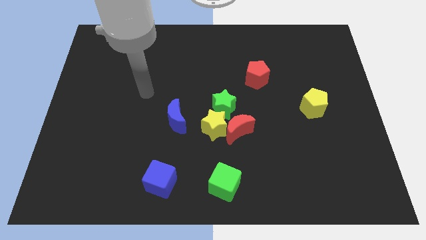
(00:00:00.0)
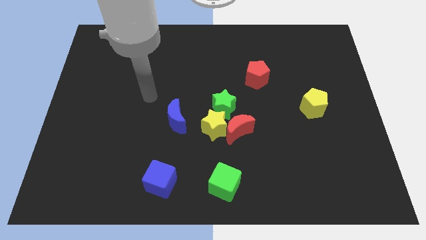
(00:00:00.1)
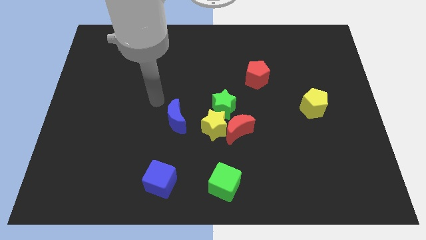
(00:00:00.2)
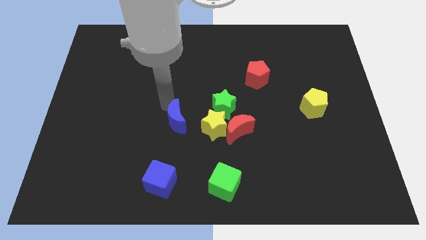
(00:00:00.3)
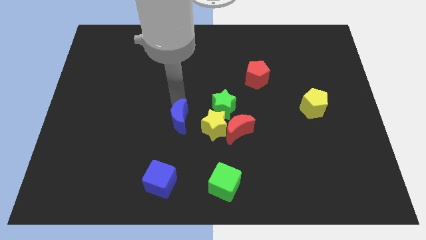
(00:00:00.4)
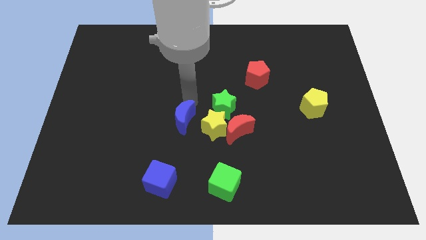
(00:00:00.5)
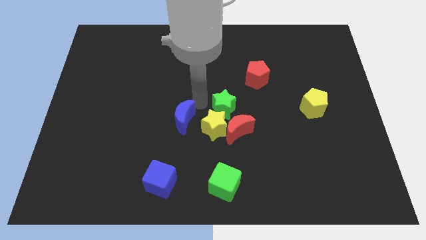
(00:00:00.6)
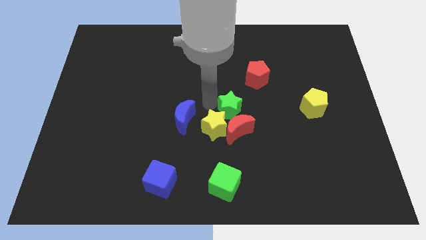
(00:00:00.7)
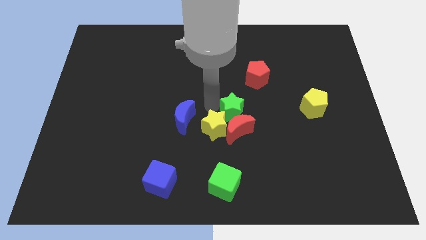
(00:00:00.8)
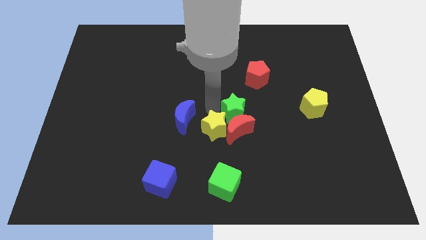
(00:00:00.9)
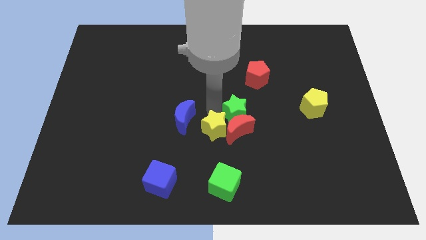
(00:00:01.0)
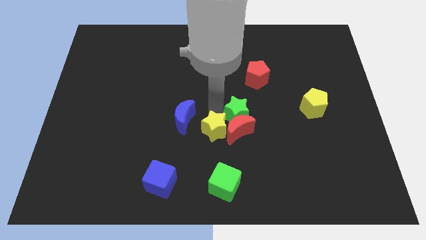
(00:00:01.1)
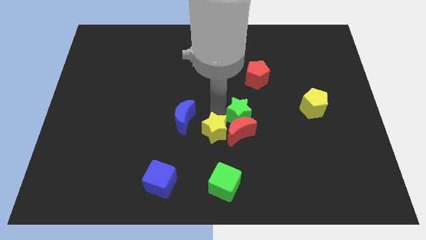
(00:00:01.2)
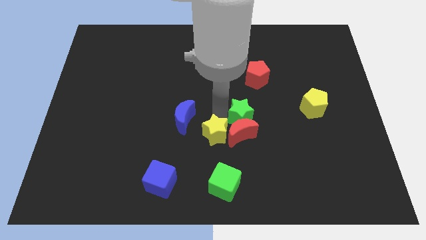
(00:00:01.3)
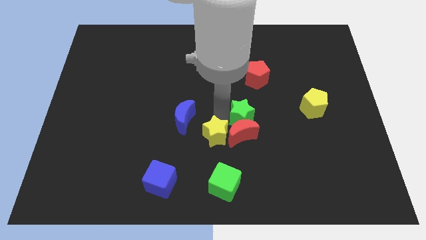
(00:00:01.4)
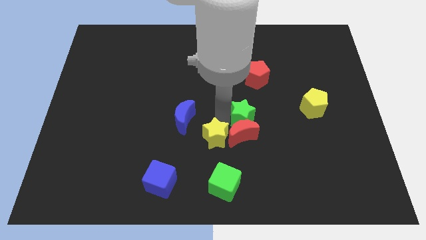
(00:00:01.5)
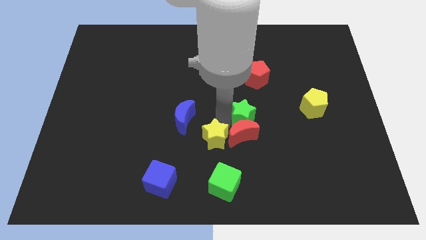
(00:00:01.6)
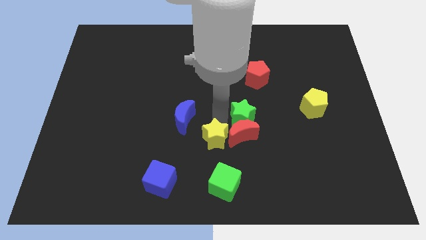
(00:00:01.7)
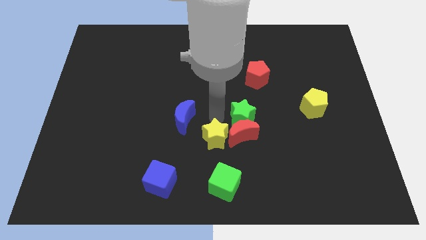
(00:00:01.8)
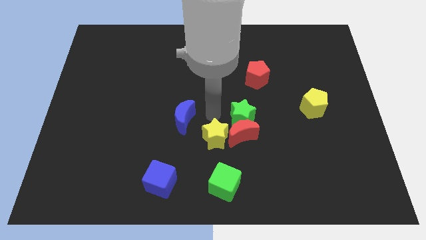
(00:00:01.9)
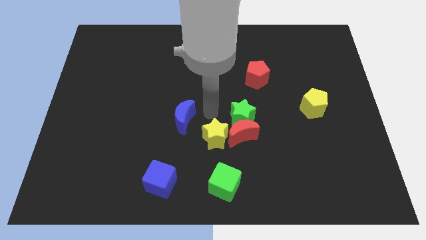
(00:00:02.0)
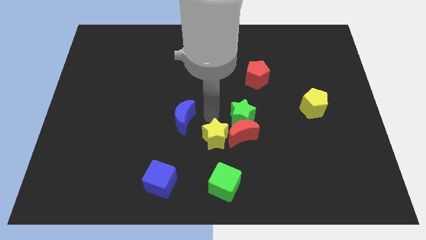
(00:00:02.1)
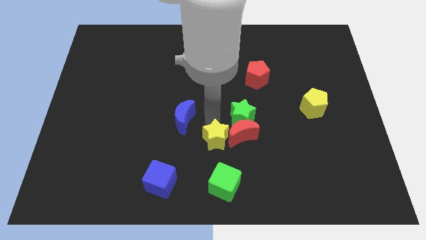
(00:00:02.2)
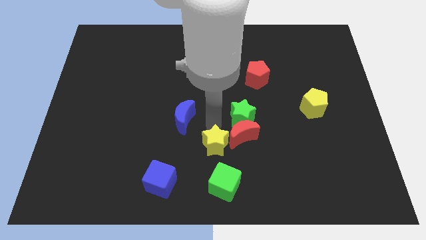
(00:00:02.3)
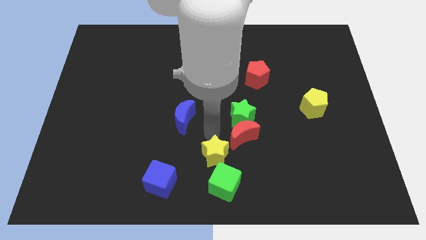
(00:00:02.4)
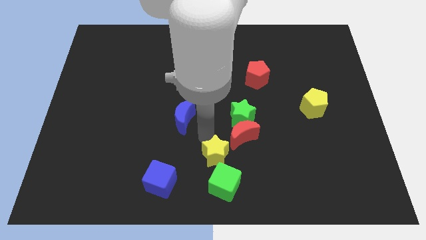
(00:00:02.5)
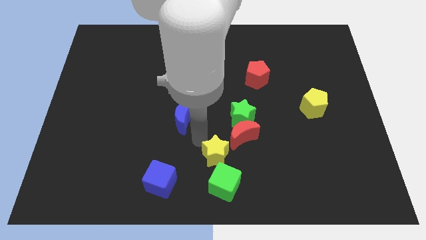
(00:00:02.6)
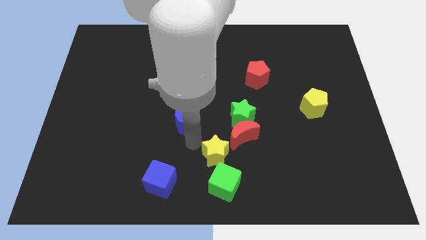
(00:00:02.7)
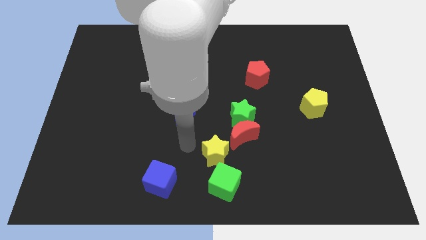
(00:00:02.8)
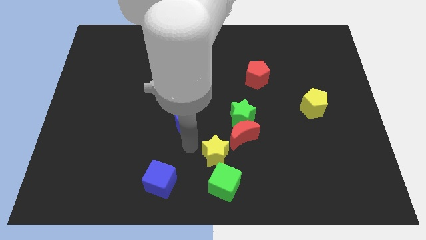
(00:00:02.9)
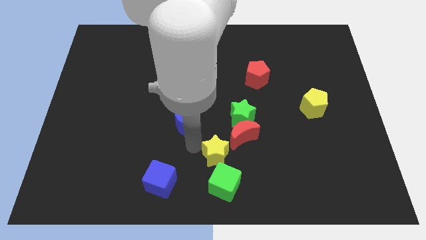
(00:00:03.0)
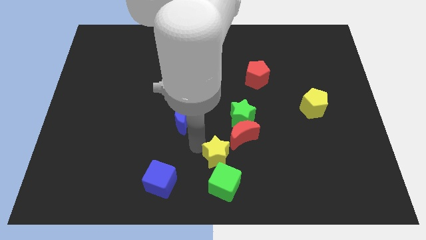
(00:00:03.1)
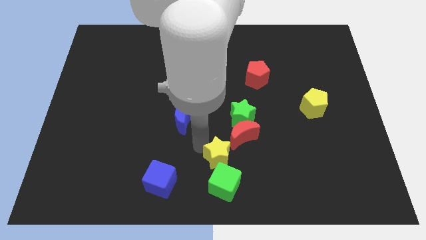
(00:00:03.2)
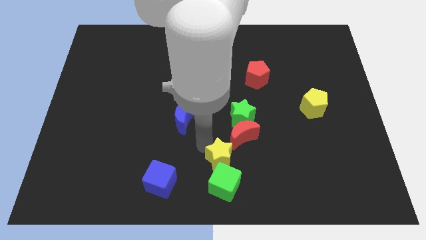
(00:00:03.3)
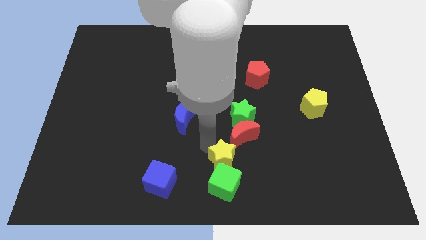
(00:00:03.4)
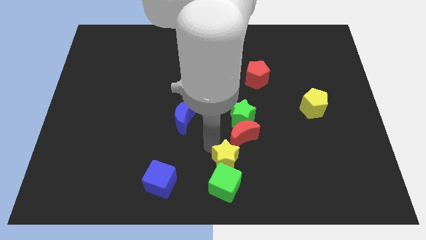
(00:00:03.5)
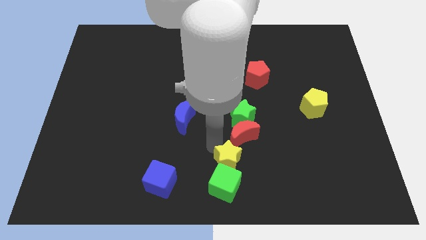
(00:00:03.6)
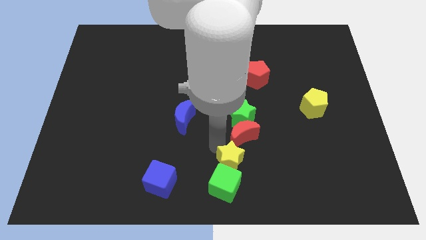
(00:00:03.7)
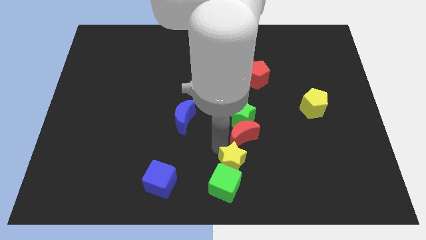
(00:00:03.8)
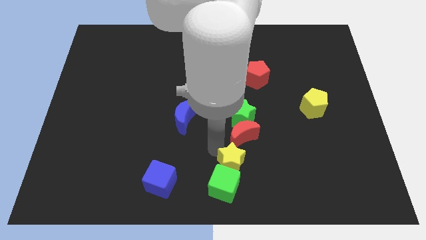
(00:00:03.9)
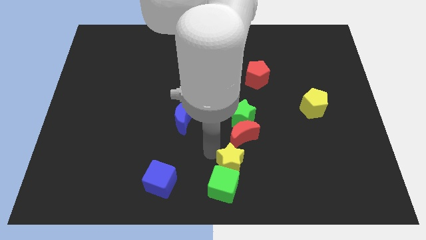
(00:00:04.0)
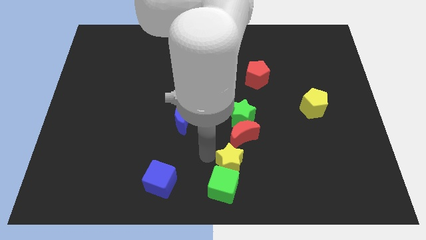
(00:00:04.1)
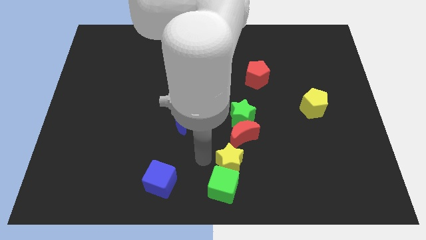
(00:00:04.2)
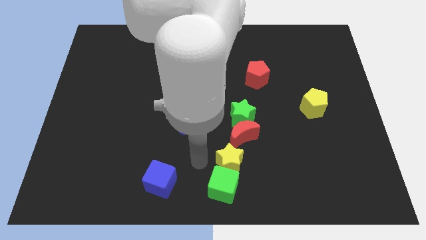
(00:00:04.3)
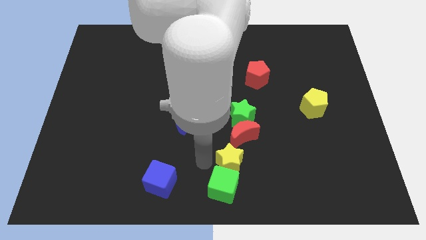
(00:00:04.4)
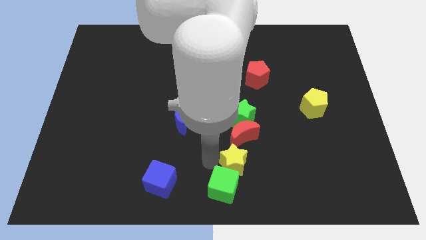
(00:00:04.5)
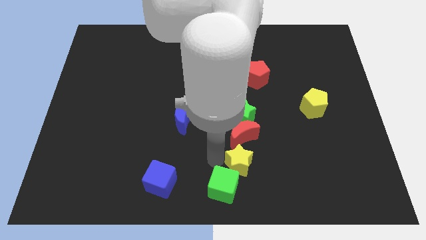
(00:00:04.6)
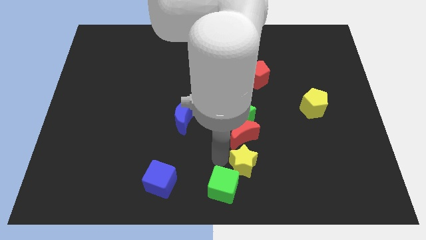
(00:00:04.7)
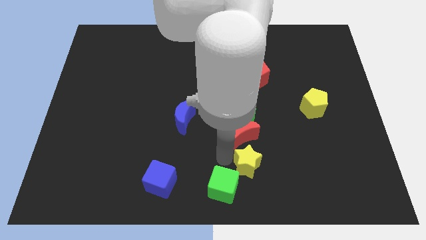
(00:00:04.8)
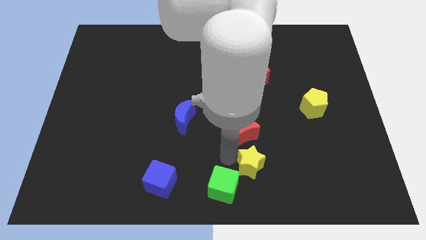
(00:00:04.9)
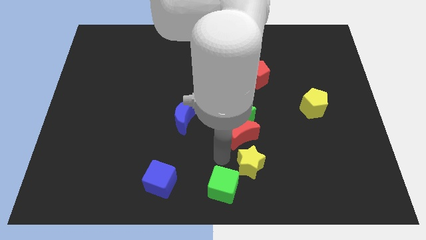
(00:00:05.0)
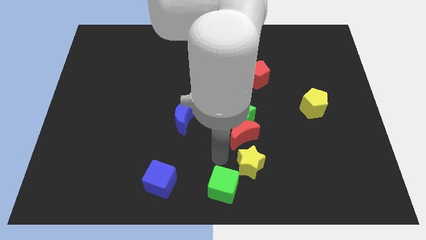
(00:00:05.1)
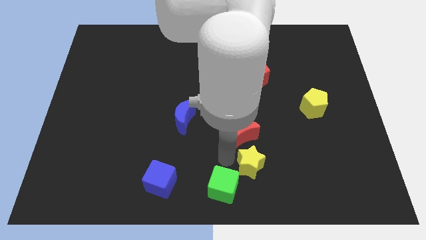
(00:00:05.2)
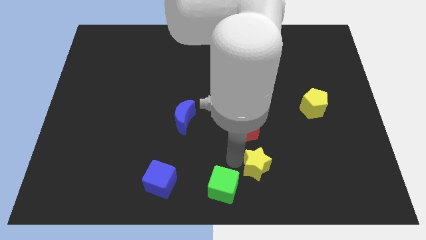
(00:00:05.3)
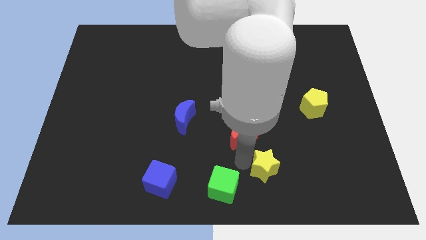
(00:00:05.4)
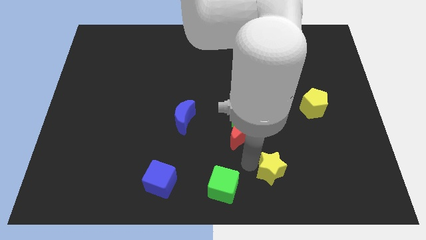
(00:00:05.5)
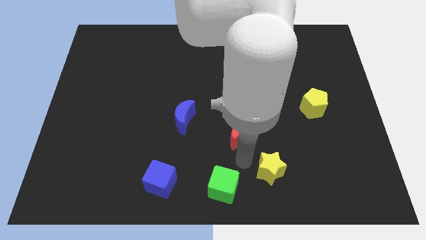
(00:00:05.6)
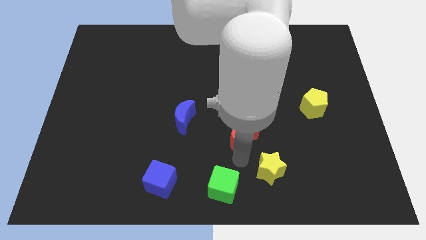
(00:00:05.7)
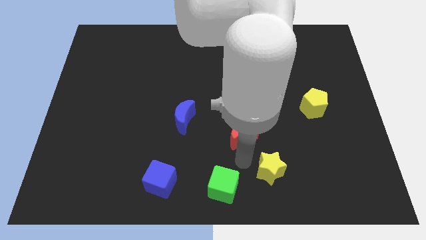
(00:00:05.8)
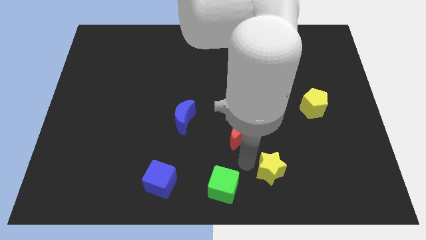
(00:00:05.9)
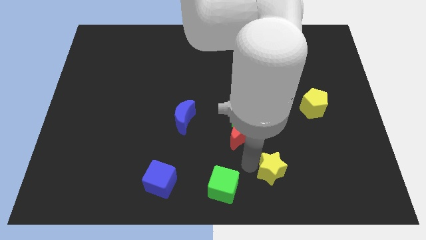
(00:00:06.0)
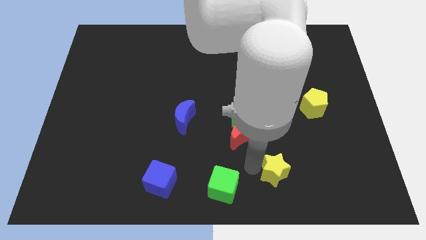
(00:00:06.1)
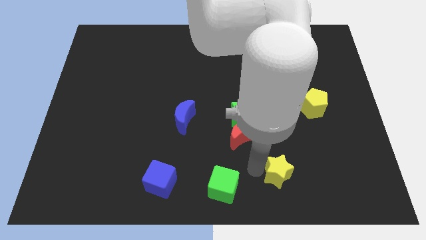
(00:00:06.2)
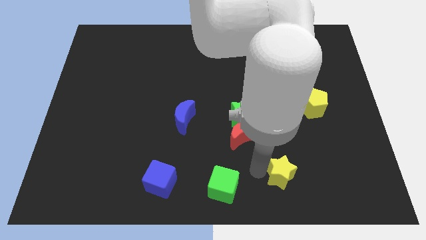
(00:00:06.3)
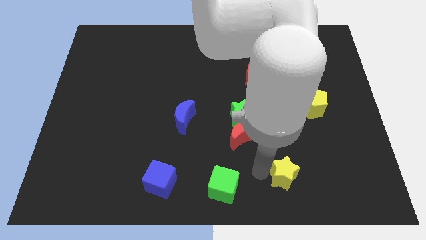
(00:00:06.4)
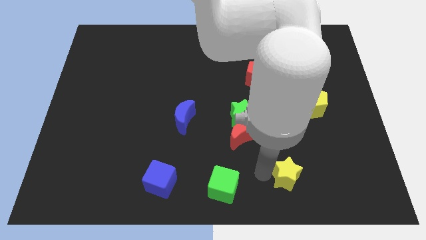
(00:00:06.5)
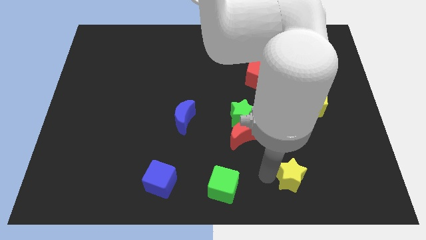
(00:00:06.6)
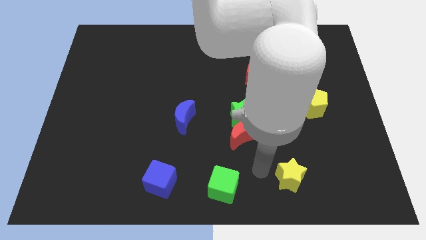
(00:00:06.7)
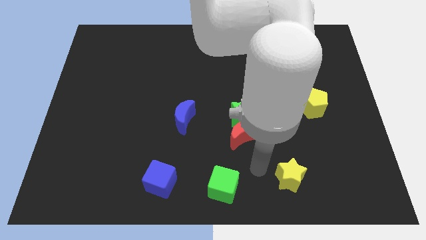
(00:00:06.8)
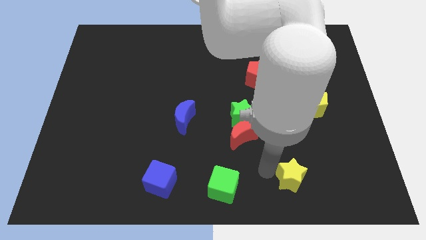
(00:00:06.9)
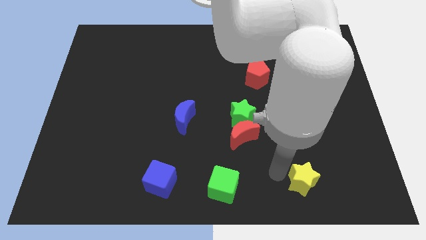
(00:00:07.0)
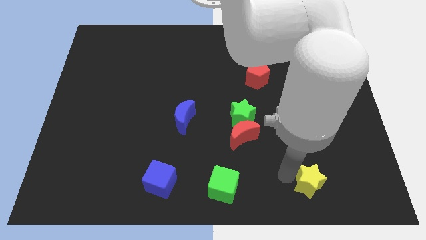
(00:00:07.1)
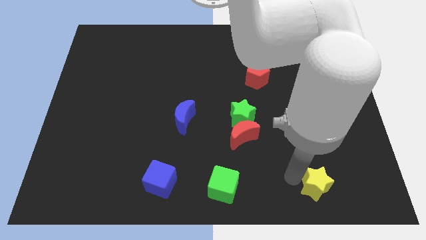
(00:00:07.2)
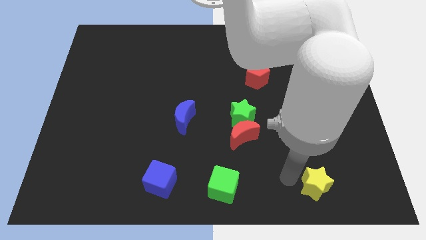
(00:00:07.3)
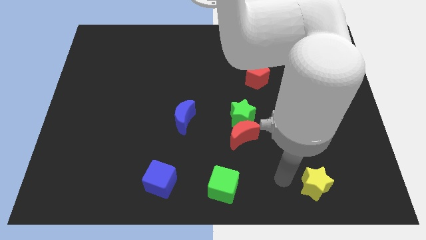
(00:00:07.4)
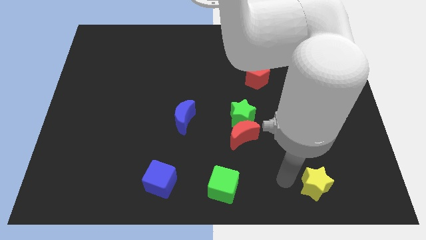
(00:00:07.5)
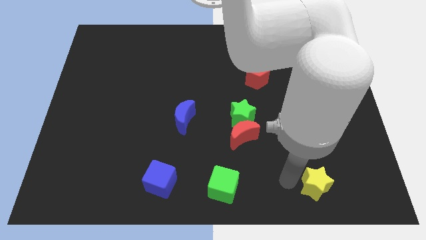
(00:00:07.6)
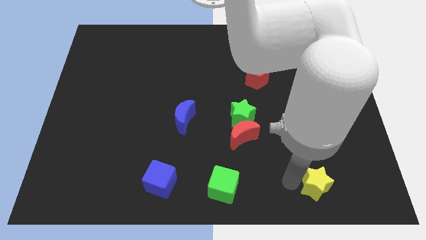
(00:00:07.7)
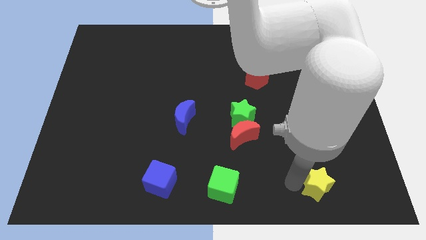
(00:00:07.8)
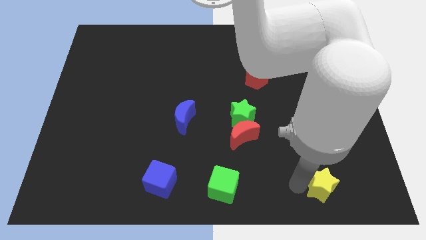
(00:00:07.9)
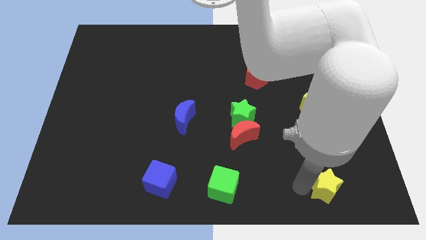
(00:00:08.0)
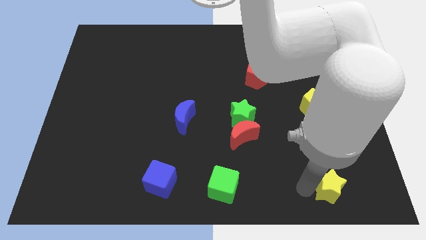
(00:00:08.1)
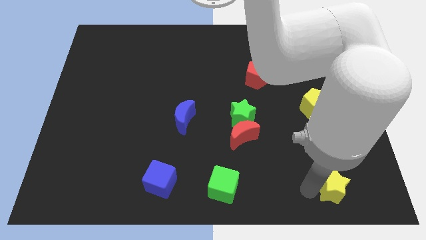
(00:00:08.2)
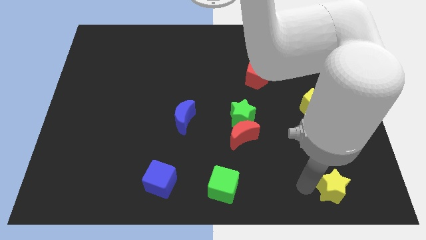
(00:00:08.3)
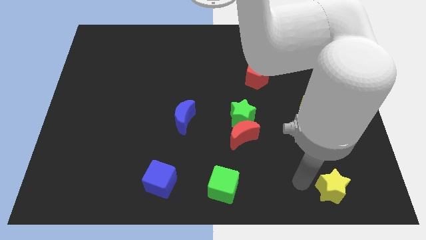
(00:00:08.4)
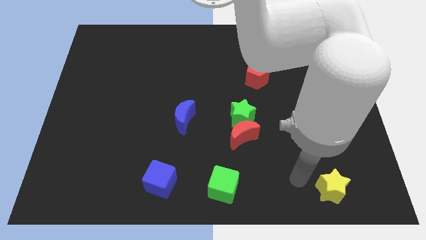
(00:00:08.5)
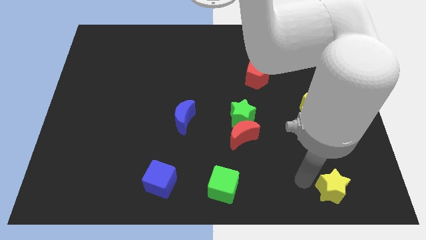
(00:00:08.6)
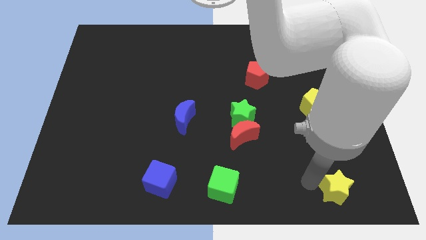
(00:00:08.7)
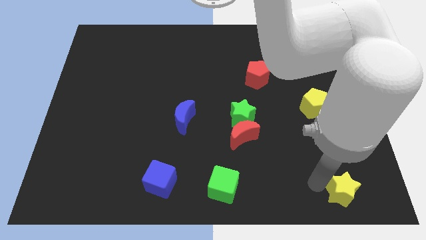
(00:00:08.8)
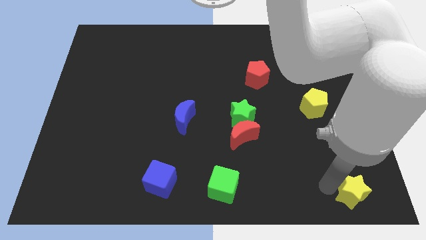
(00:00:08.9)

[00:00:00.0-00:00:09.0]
slide the yellow star to the bottom right
